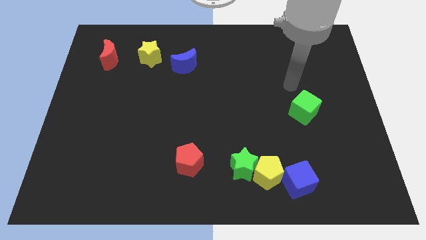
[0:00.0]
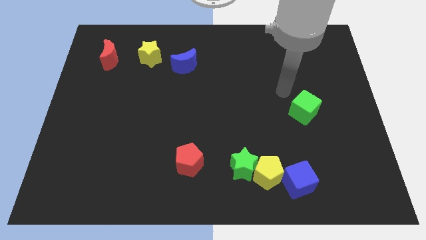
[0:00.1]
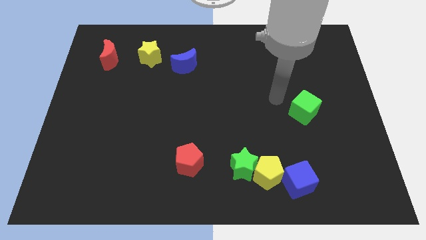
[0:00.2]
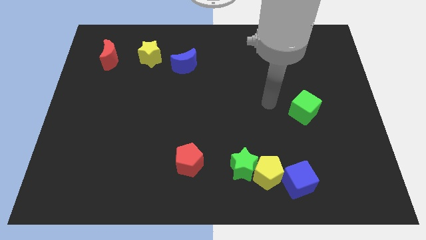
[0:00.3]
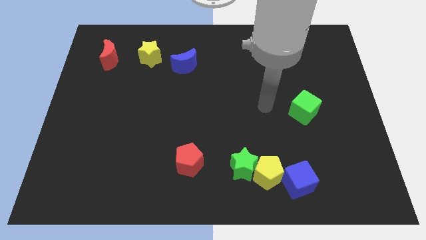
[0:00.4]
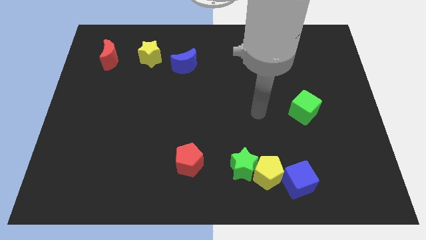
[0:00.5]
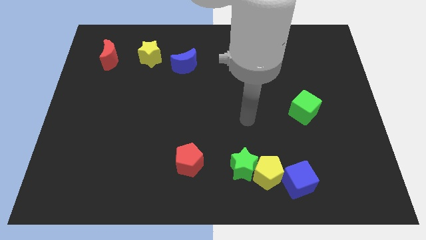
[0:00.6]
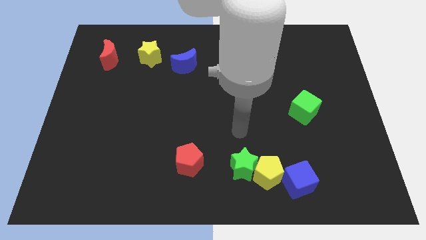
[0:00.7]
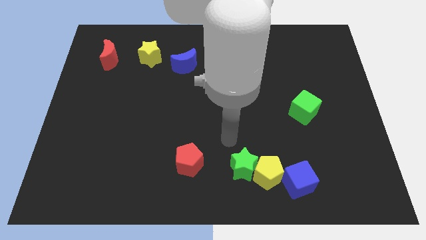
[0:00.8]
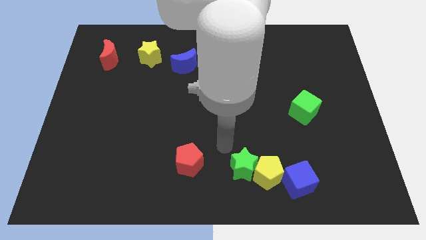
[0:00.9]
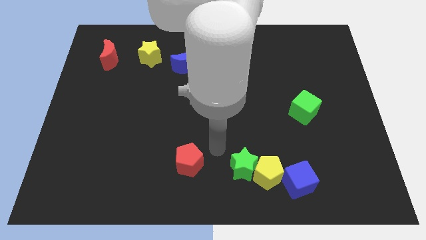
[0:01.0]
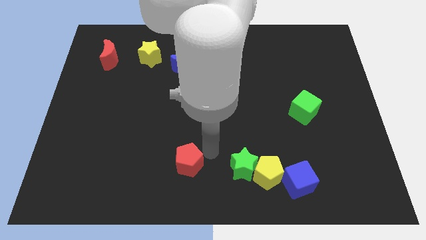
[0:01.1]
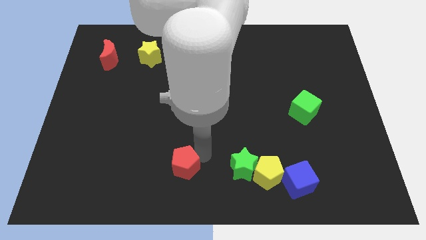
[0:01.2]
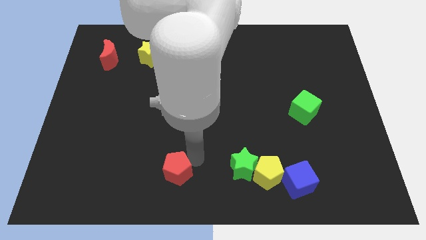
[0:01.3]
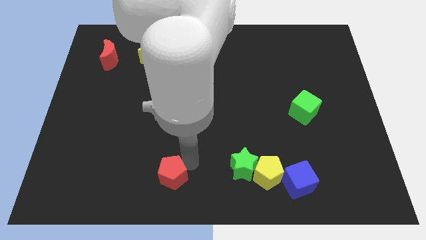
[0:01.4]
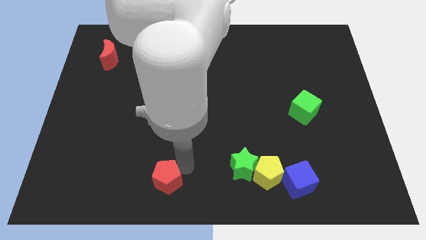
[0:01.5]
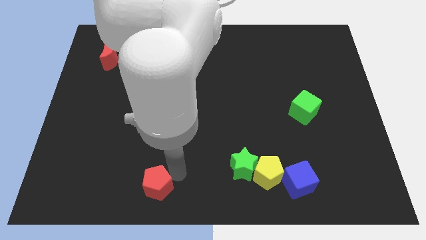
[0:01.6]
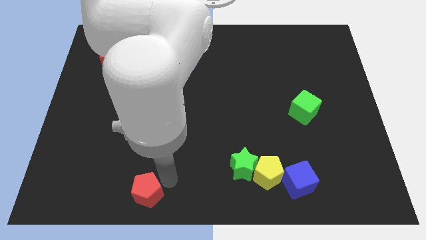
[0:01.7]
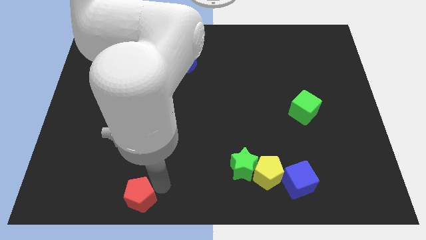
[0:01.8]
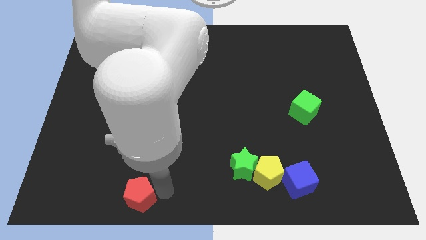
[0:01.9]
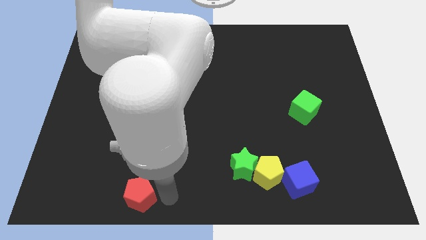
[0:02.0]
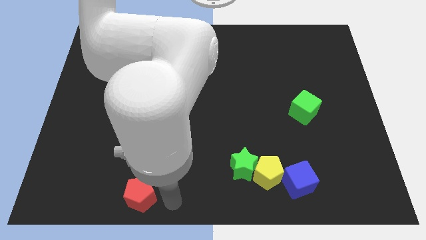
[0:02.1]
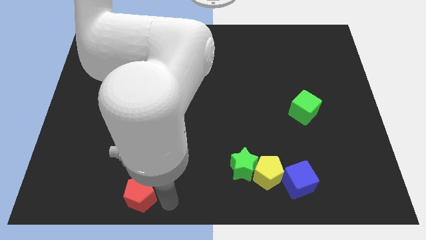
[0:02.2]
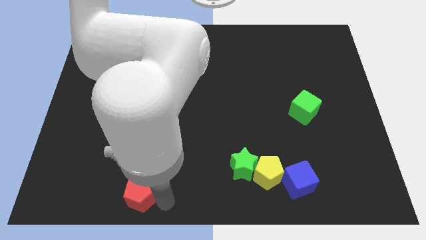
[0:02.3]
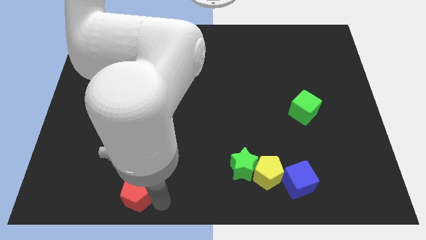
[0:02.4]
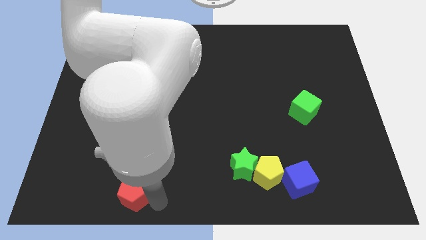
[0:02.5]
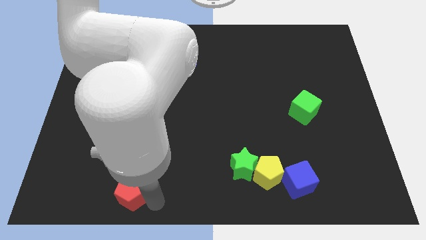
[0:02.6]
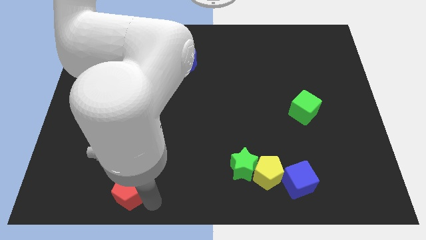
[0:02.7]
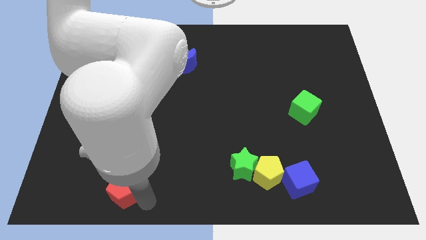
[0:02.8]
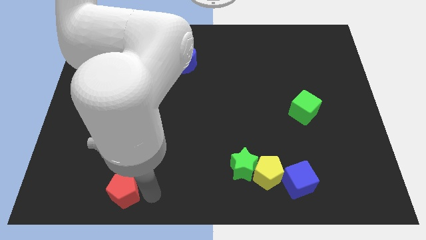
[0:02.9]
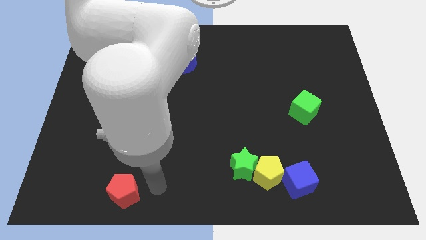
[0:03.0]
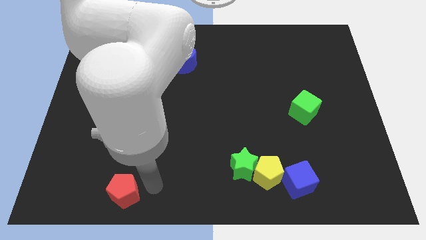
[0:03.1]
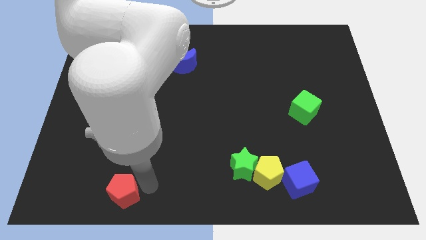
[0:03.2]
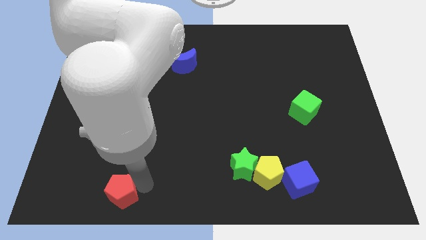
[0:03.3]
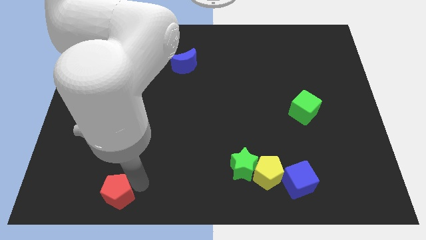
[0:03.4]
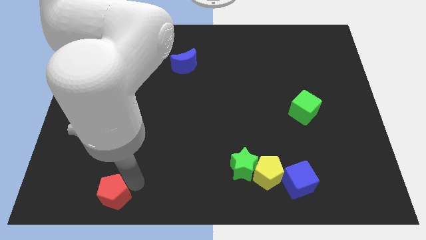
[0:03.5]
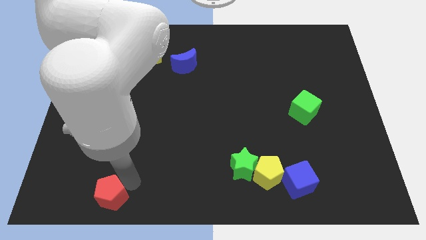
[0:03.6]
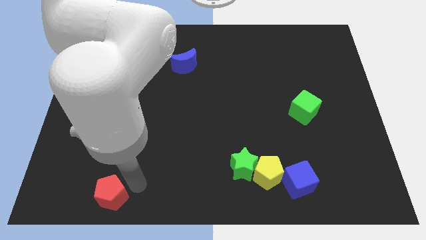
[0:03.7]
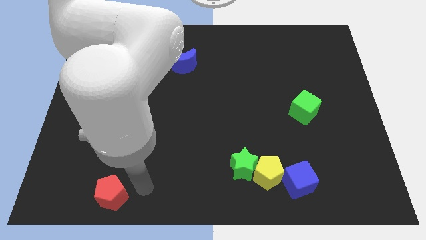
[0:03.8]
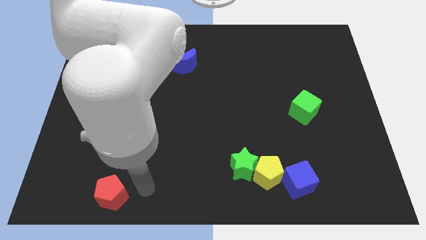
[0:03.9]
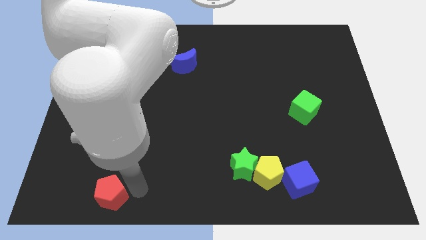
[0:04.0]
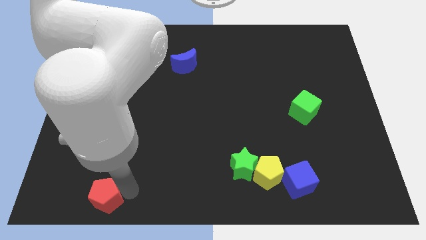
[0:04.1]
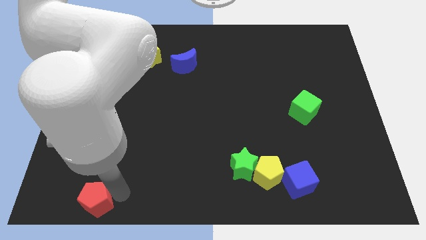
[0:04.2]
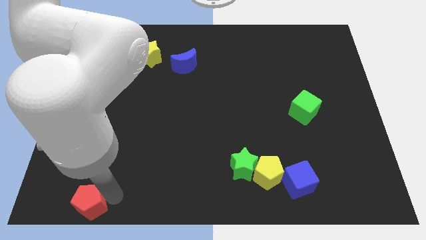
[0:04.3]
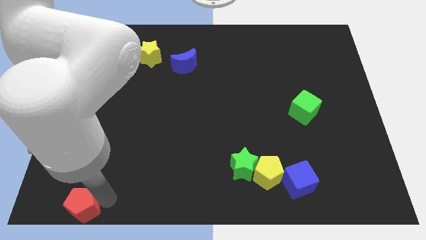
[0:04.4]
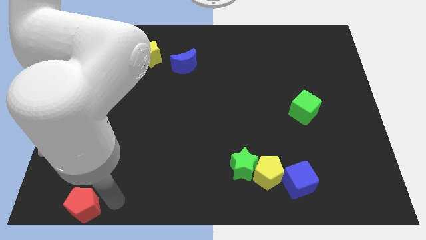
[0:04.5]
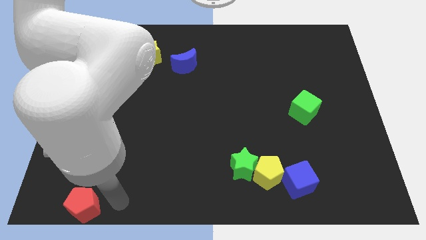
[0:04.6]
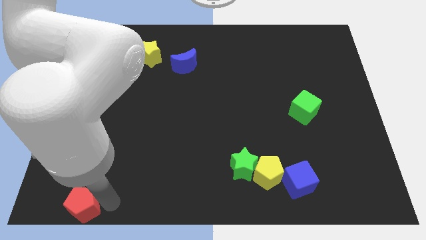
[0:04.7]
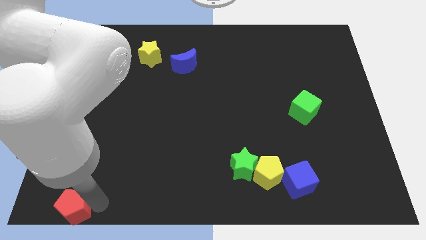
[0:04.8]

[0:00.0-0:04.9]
slide the red pentagon to the lower left corner

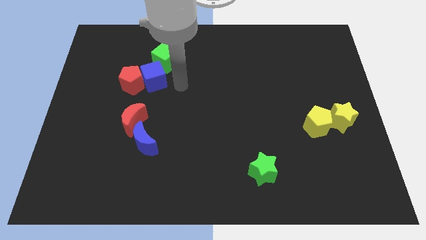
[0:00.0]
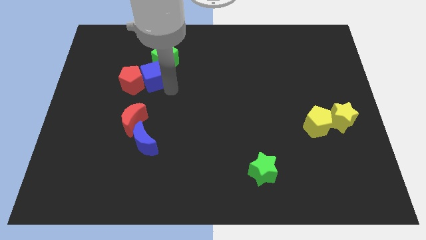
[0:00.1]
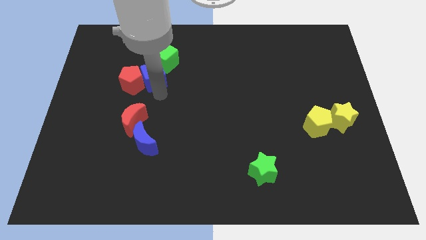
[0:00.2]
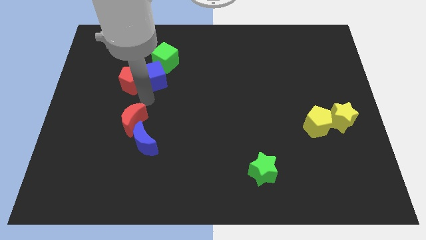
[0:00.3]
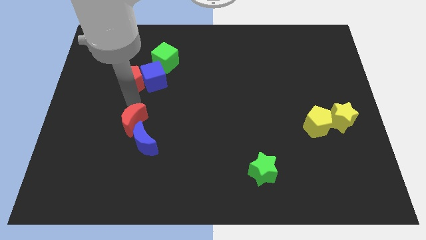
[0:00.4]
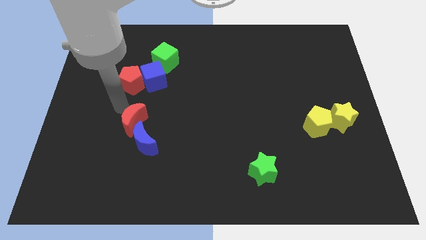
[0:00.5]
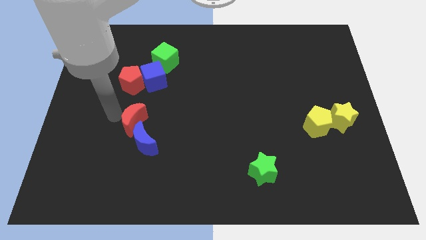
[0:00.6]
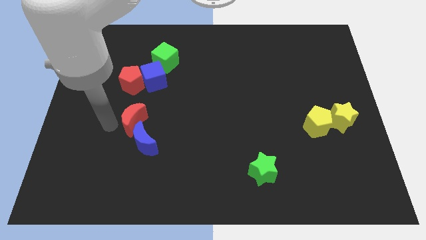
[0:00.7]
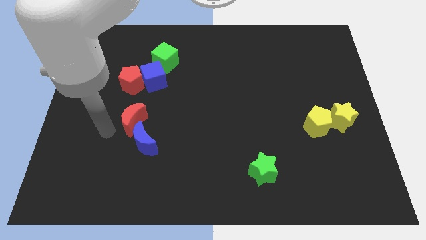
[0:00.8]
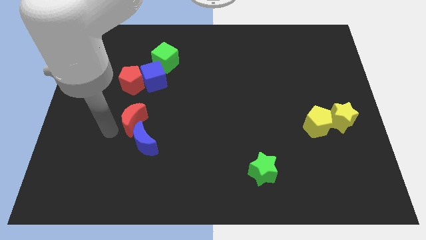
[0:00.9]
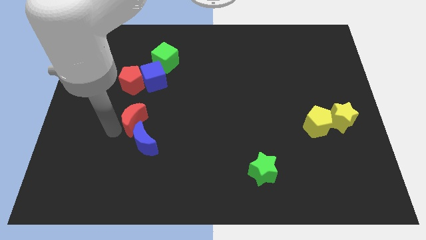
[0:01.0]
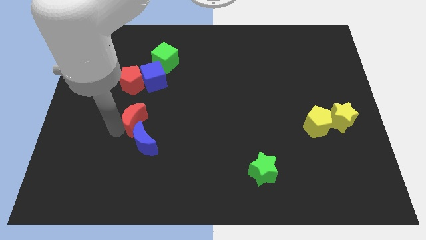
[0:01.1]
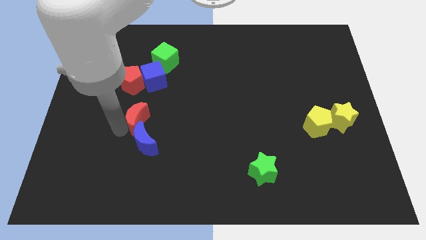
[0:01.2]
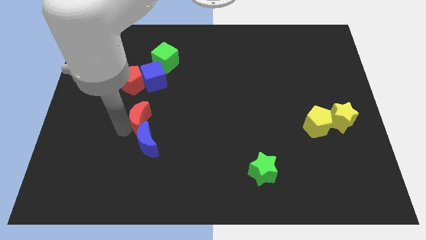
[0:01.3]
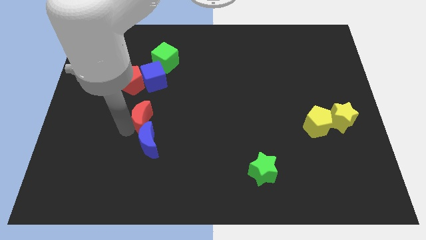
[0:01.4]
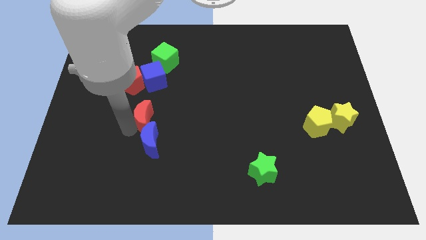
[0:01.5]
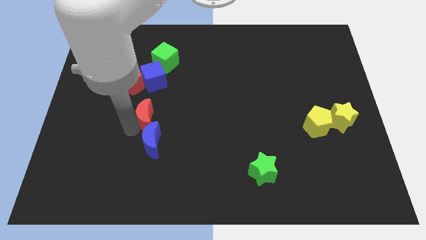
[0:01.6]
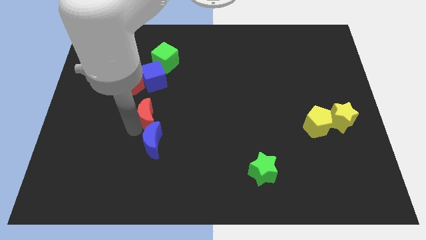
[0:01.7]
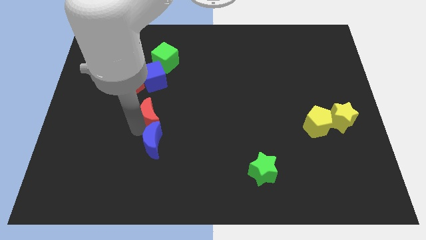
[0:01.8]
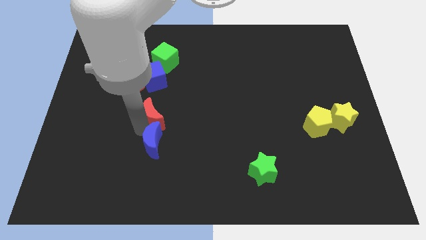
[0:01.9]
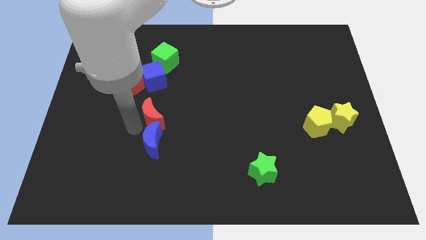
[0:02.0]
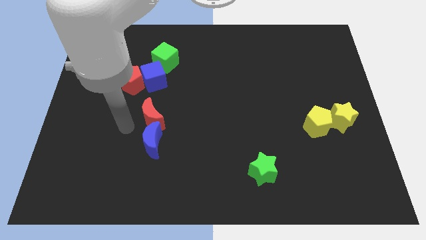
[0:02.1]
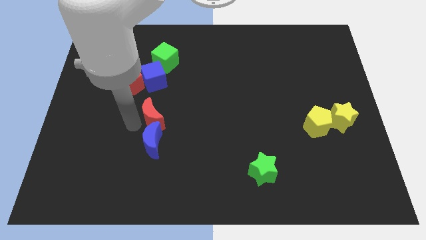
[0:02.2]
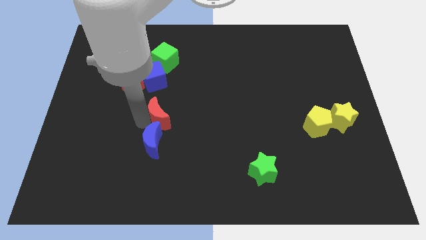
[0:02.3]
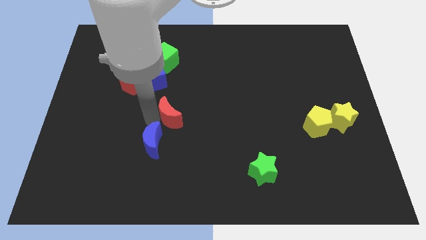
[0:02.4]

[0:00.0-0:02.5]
put the red moon to the middle
